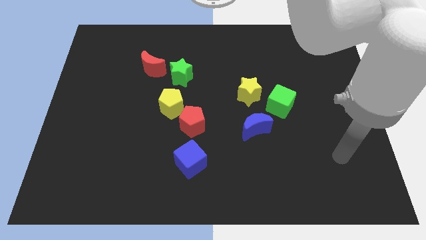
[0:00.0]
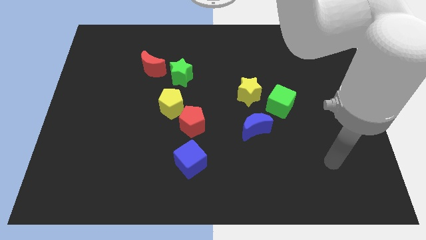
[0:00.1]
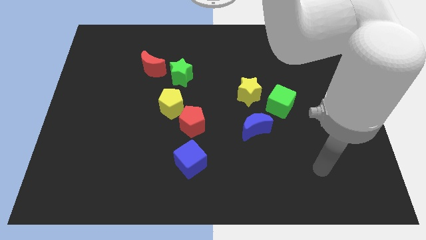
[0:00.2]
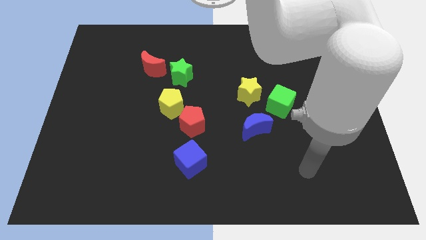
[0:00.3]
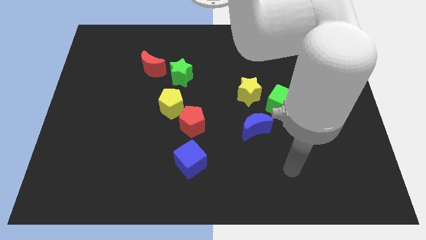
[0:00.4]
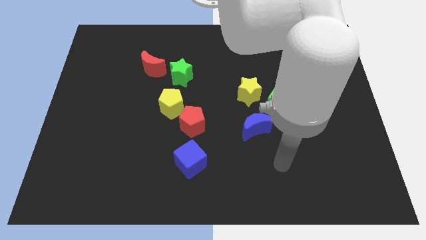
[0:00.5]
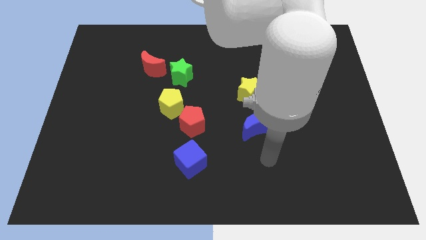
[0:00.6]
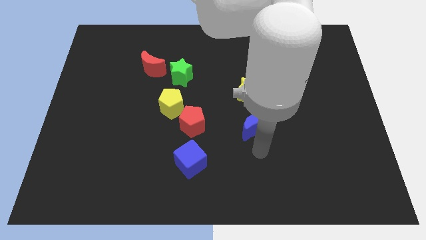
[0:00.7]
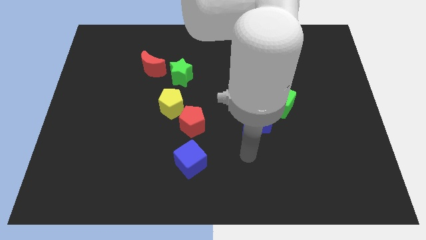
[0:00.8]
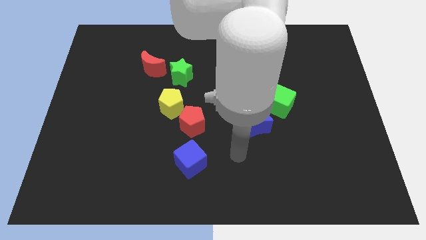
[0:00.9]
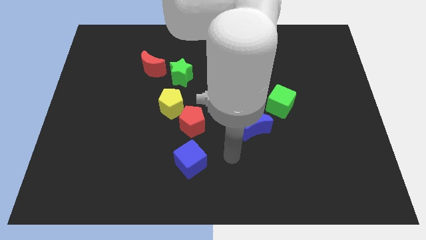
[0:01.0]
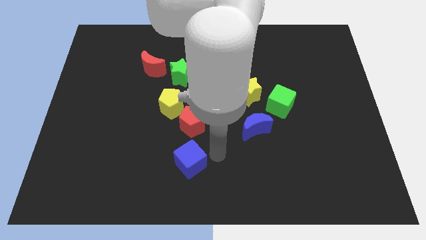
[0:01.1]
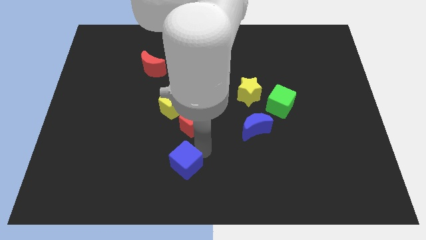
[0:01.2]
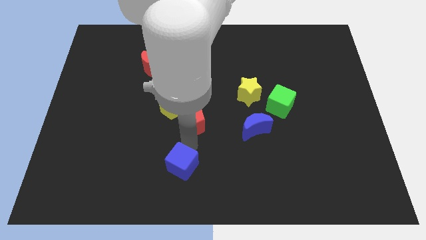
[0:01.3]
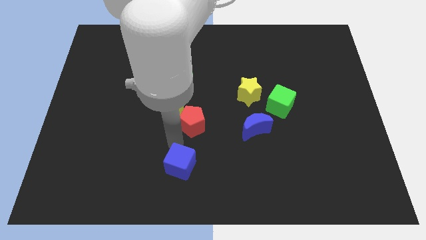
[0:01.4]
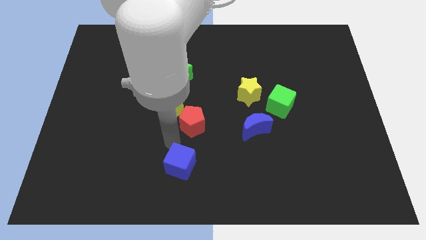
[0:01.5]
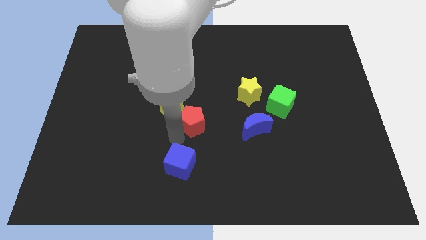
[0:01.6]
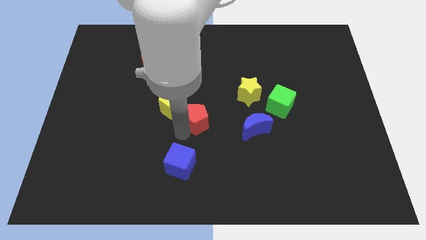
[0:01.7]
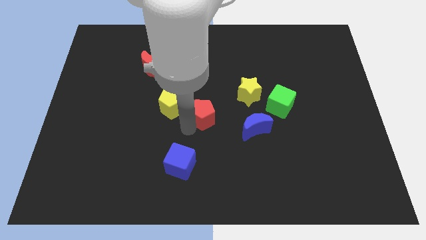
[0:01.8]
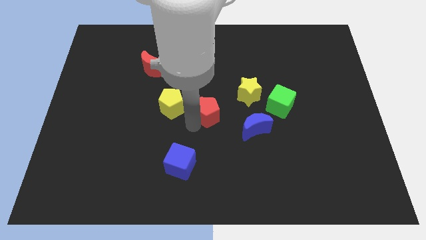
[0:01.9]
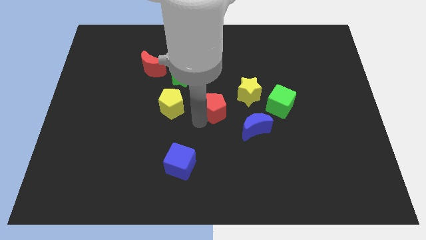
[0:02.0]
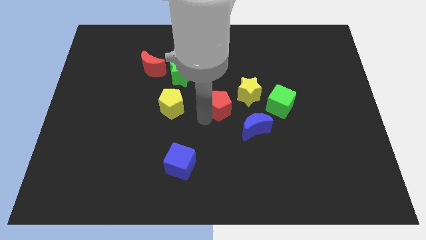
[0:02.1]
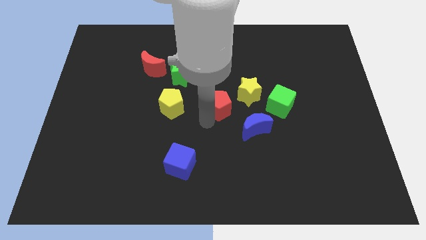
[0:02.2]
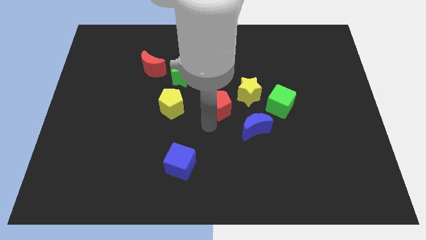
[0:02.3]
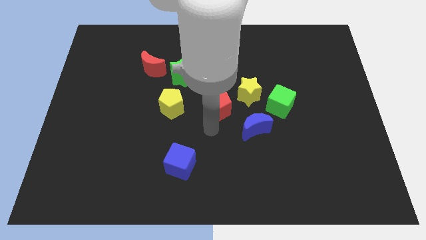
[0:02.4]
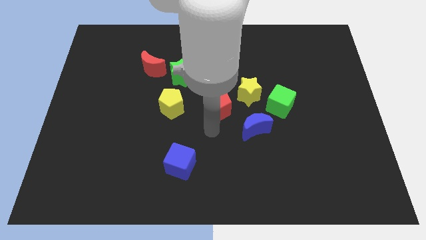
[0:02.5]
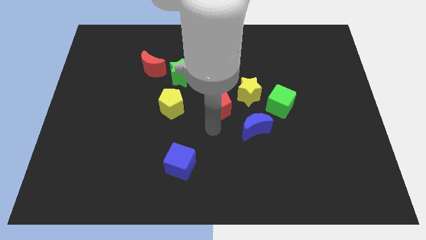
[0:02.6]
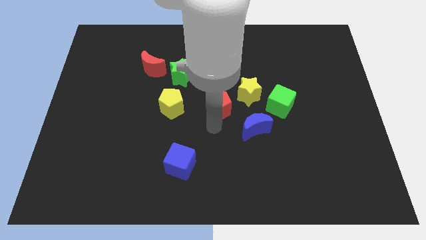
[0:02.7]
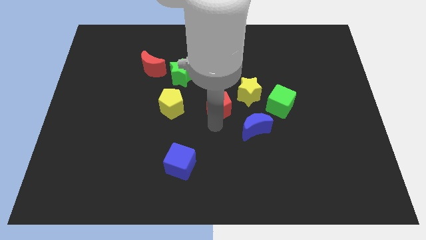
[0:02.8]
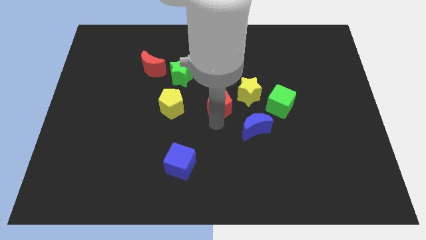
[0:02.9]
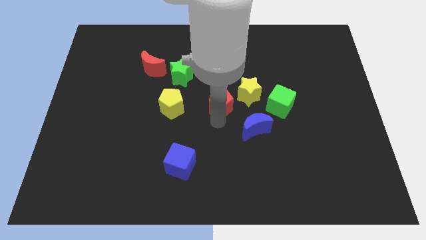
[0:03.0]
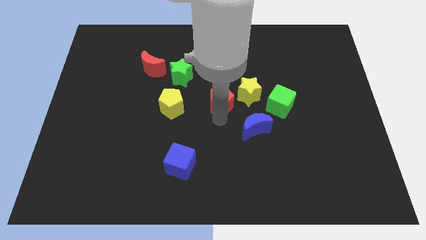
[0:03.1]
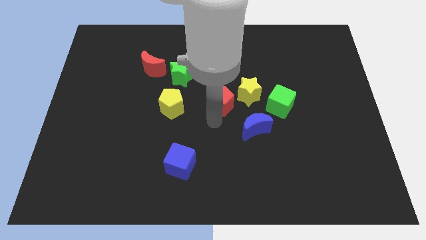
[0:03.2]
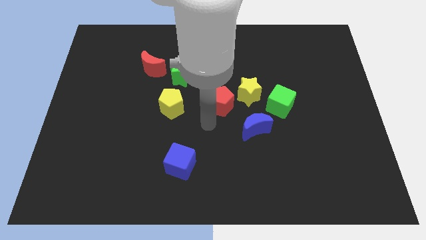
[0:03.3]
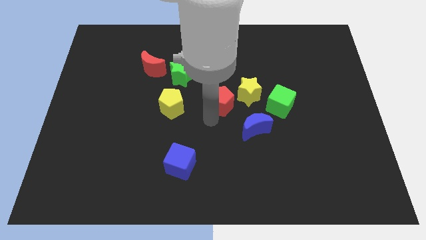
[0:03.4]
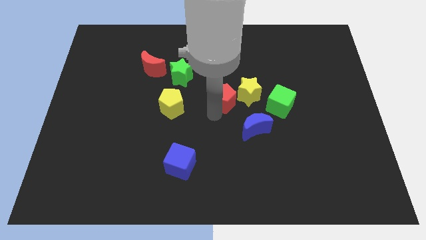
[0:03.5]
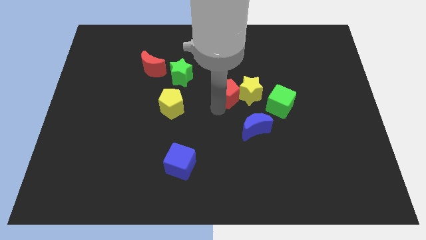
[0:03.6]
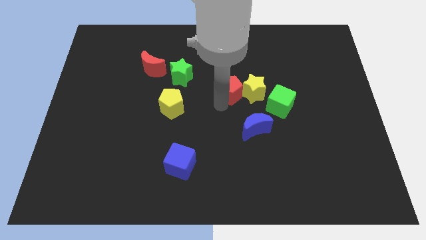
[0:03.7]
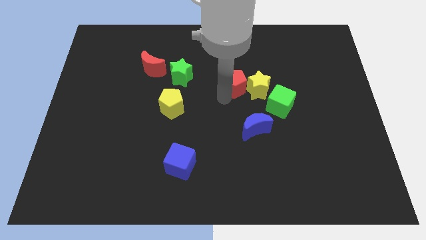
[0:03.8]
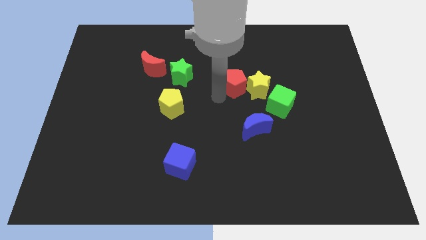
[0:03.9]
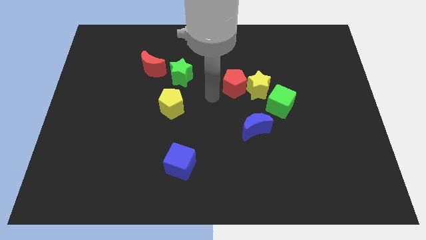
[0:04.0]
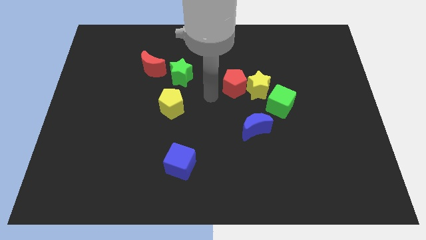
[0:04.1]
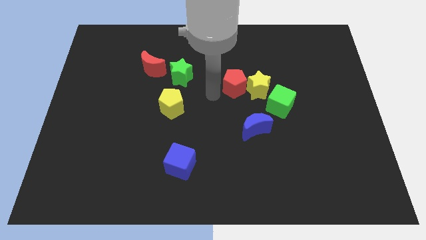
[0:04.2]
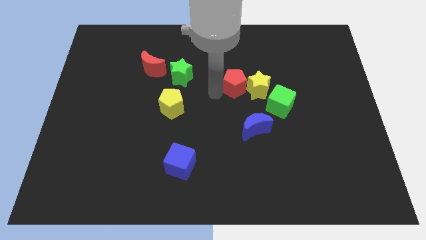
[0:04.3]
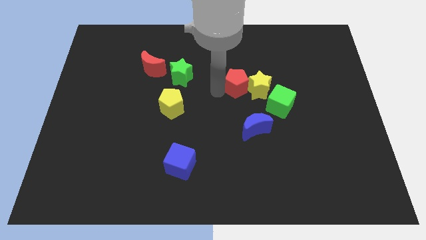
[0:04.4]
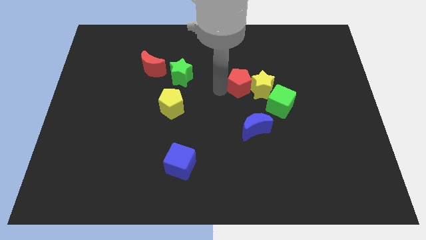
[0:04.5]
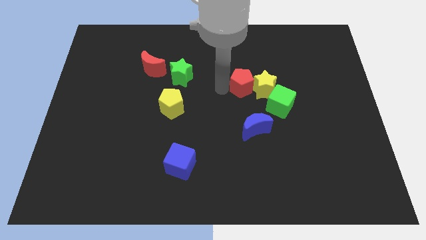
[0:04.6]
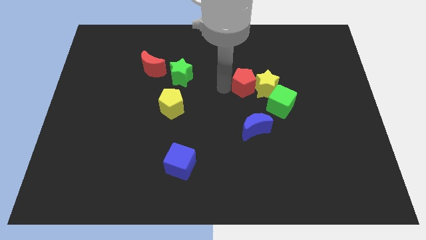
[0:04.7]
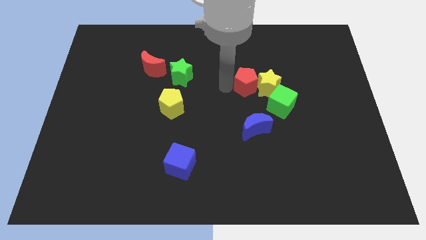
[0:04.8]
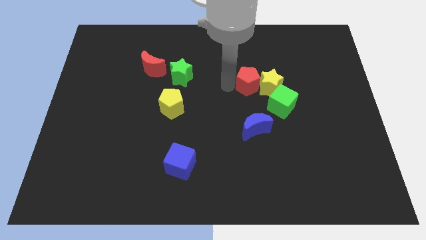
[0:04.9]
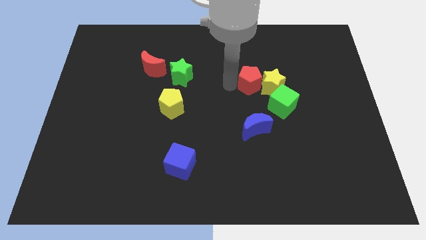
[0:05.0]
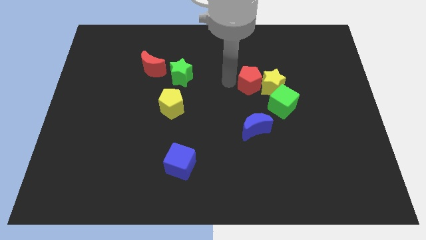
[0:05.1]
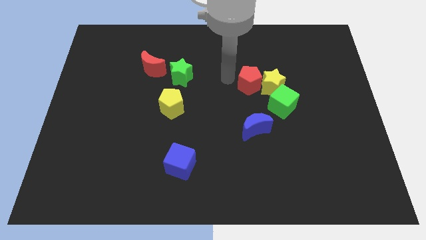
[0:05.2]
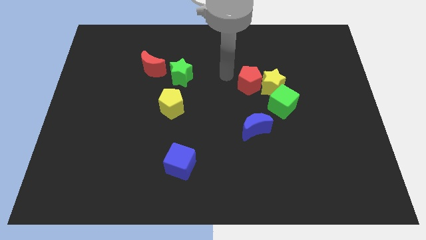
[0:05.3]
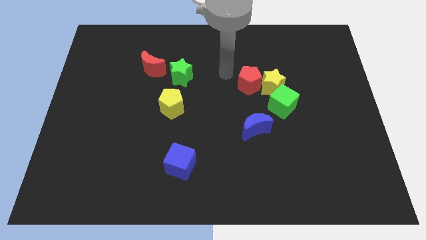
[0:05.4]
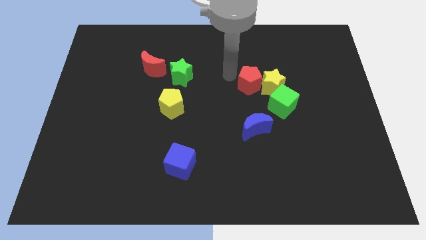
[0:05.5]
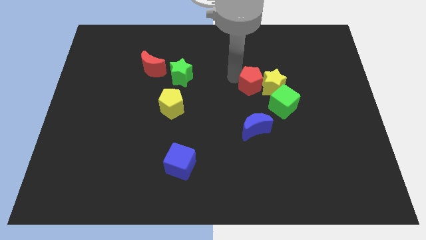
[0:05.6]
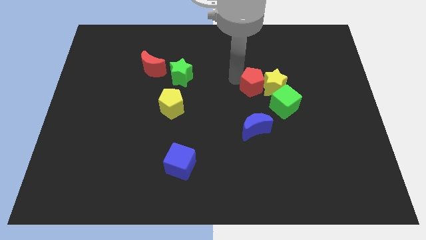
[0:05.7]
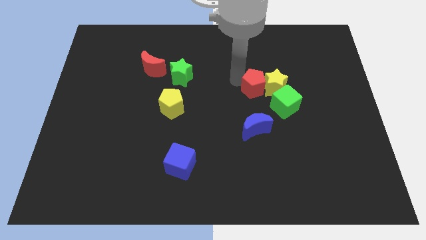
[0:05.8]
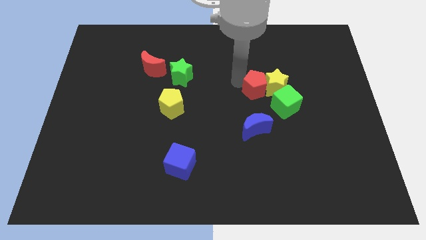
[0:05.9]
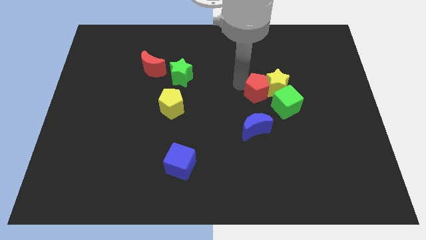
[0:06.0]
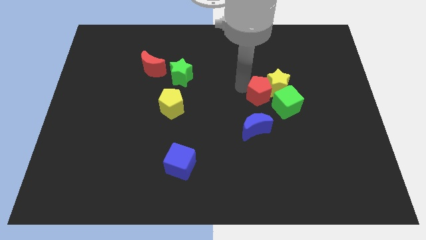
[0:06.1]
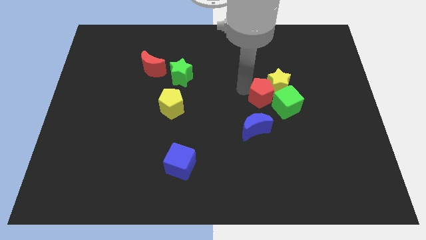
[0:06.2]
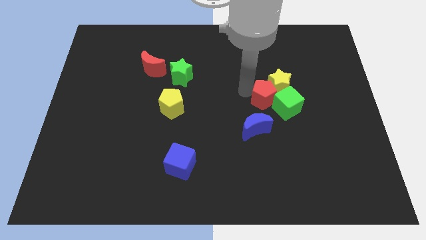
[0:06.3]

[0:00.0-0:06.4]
push the red pentagon to the green cube

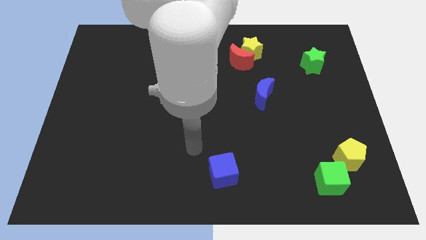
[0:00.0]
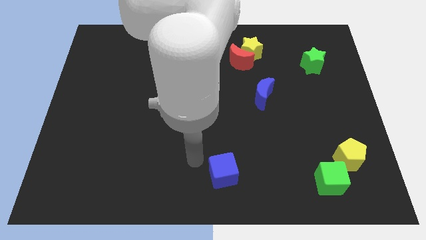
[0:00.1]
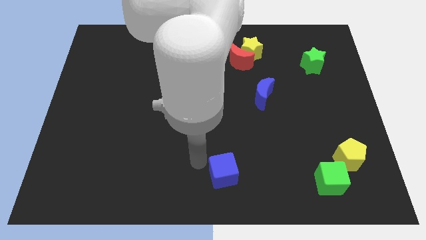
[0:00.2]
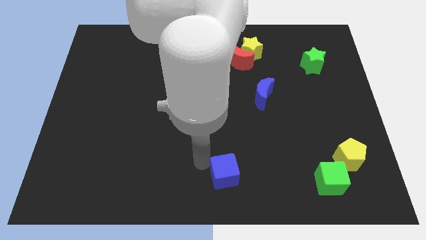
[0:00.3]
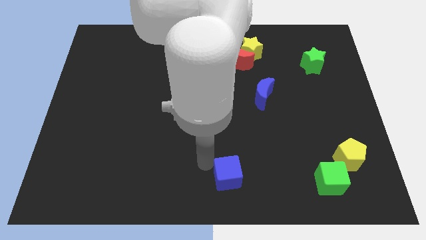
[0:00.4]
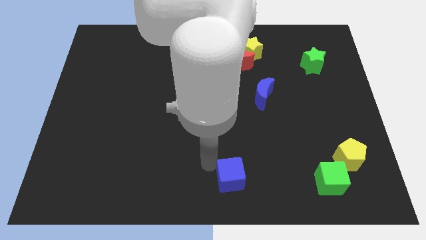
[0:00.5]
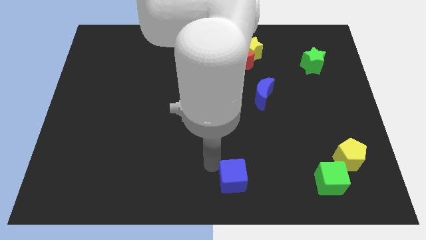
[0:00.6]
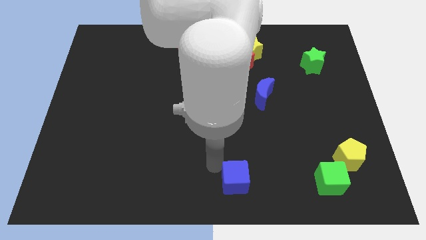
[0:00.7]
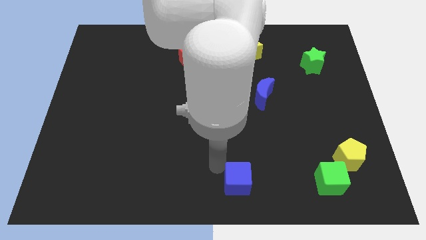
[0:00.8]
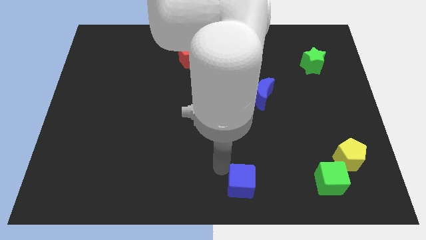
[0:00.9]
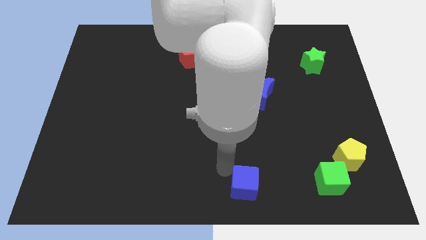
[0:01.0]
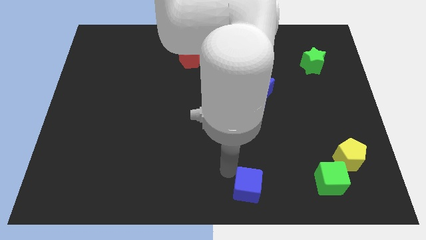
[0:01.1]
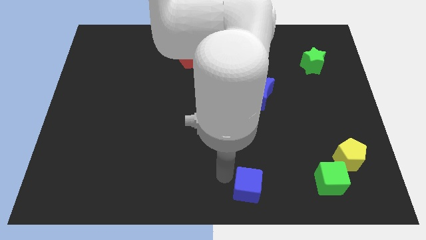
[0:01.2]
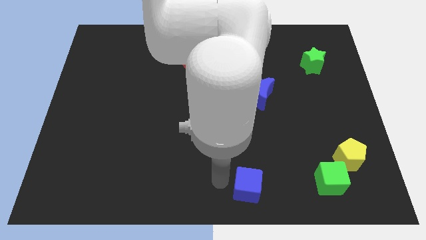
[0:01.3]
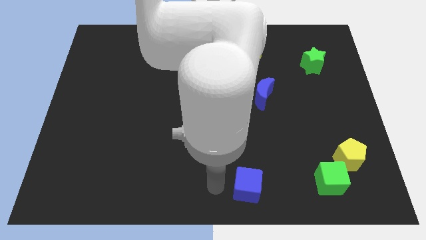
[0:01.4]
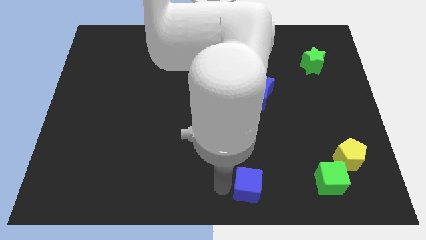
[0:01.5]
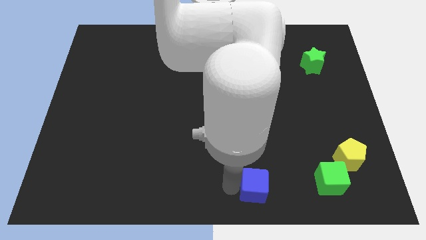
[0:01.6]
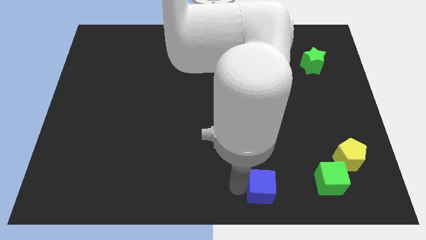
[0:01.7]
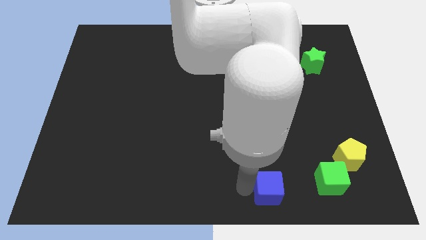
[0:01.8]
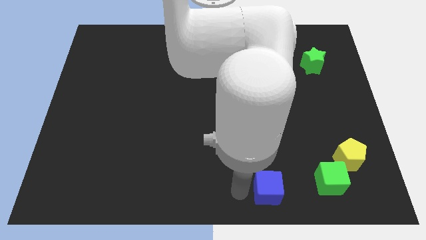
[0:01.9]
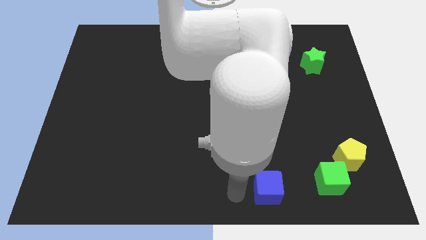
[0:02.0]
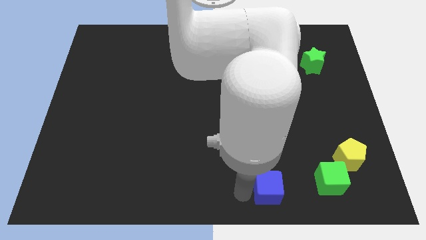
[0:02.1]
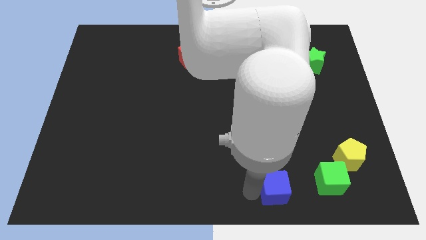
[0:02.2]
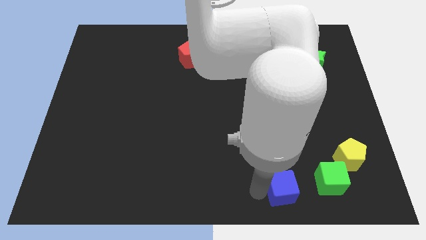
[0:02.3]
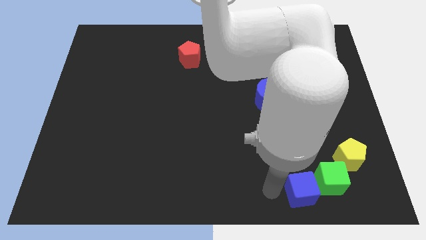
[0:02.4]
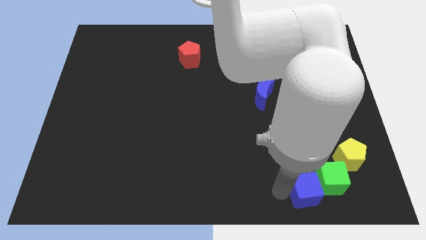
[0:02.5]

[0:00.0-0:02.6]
slide the blue cube to the green cube
